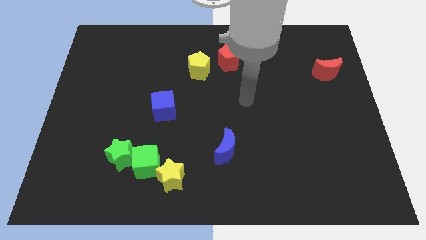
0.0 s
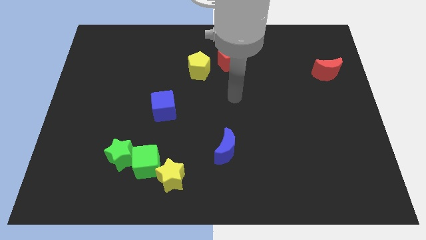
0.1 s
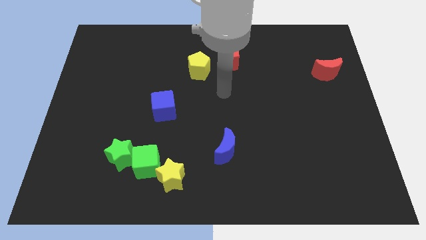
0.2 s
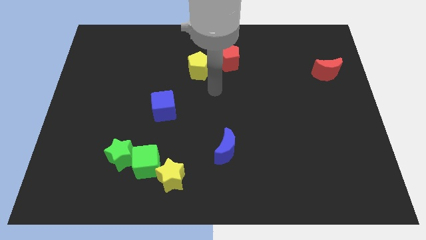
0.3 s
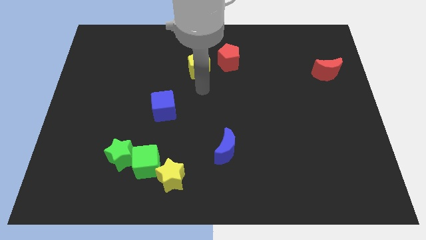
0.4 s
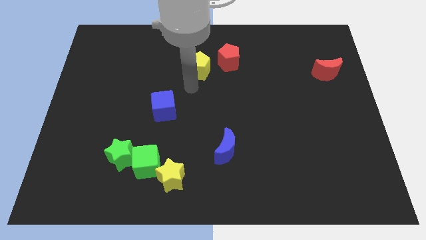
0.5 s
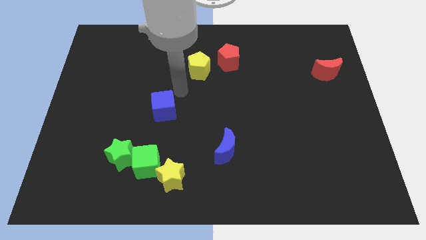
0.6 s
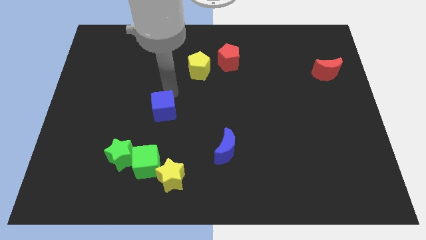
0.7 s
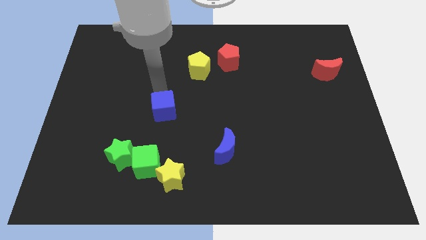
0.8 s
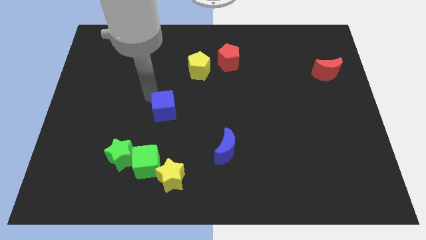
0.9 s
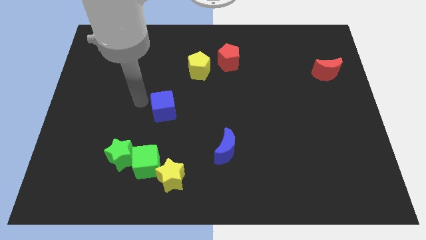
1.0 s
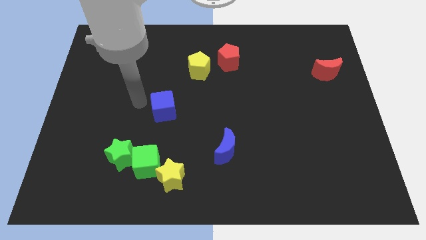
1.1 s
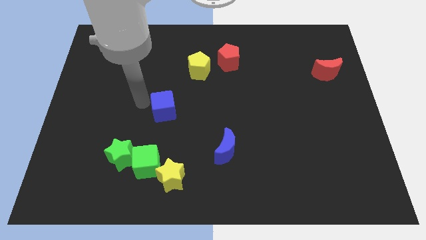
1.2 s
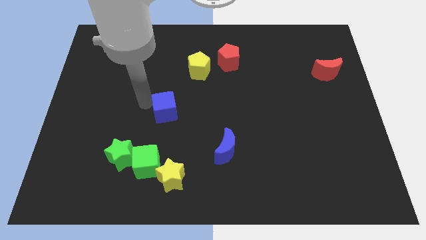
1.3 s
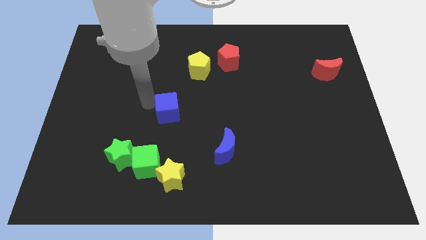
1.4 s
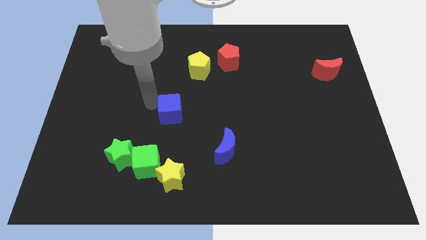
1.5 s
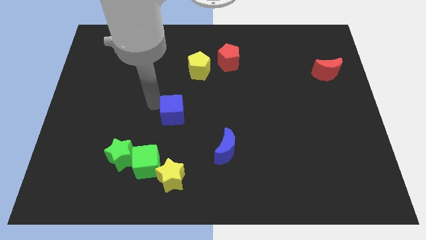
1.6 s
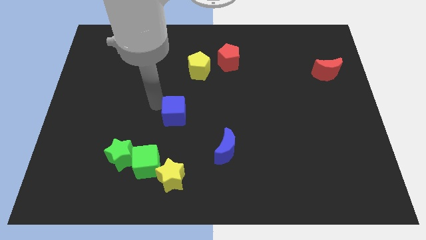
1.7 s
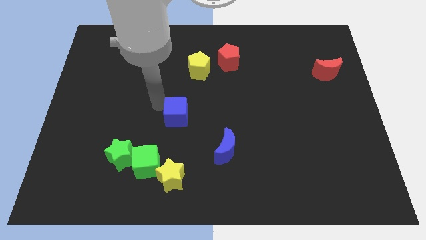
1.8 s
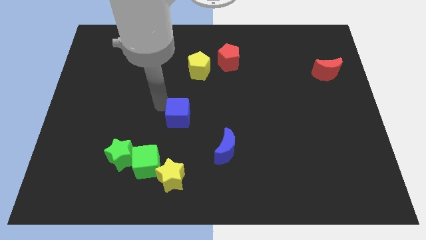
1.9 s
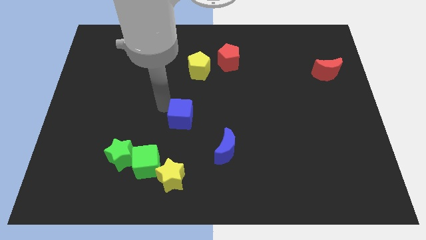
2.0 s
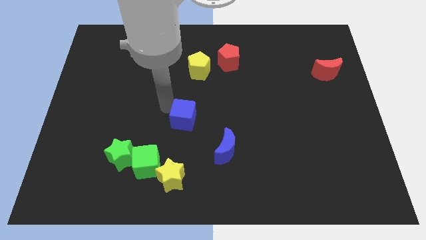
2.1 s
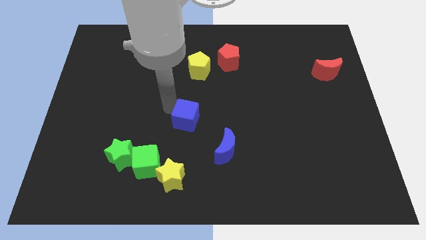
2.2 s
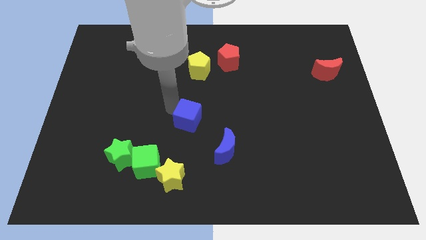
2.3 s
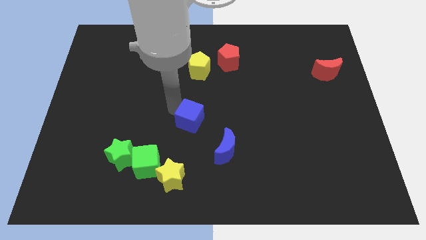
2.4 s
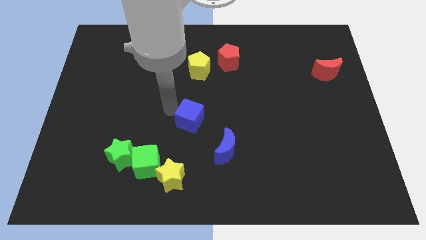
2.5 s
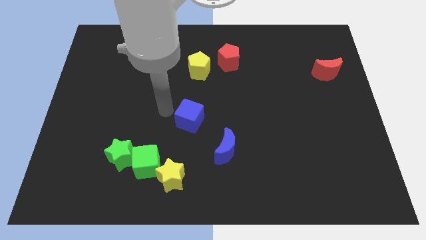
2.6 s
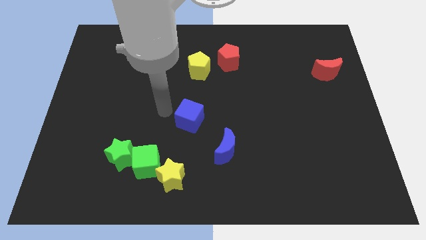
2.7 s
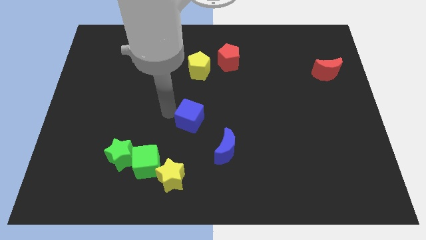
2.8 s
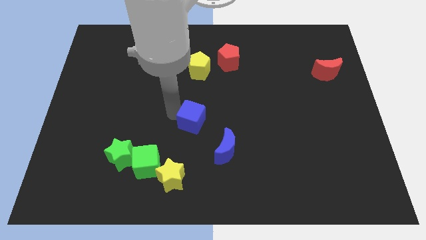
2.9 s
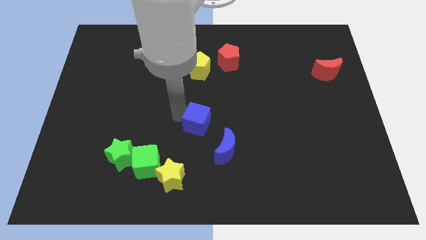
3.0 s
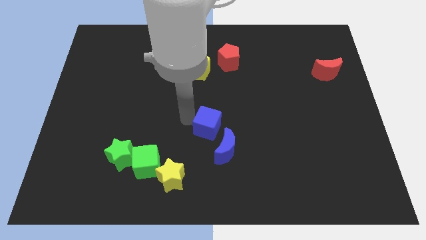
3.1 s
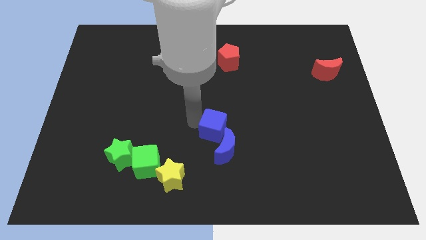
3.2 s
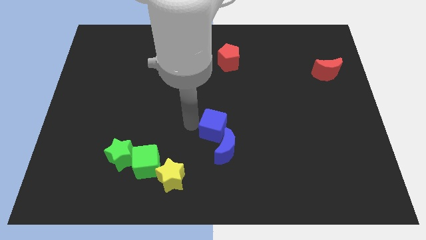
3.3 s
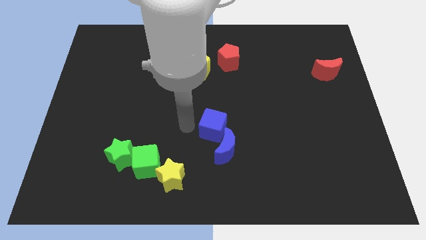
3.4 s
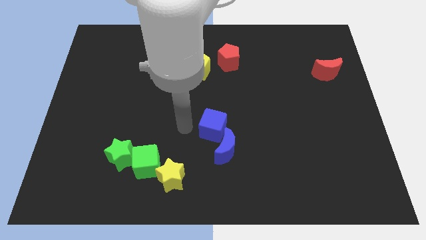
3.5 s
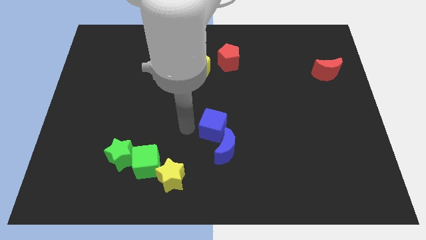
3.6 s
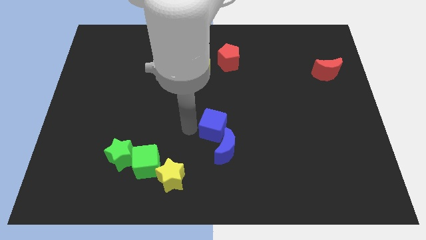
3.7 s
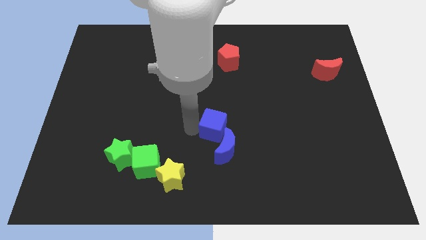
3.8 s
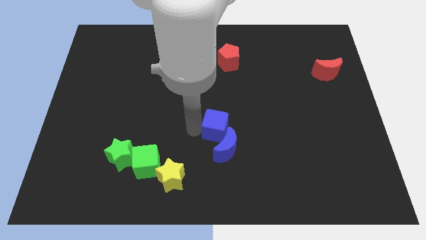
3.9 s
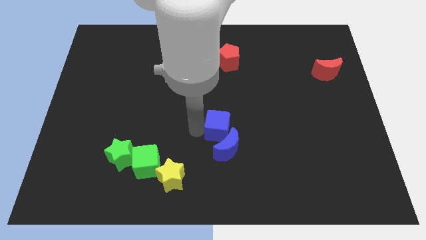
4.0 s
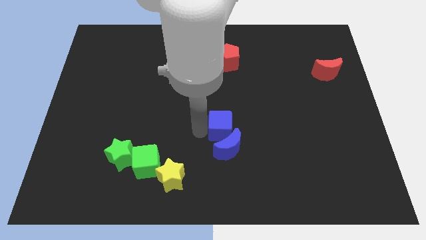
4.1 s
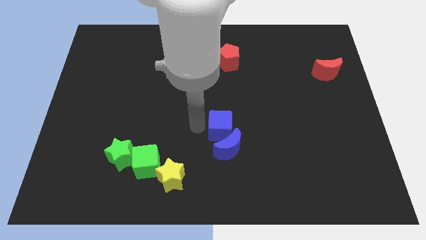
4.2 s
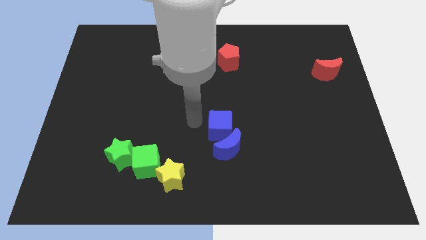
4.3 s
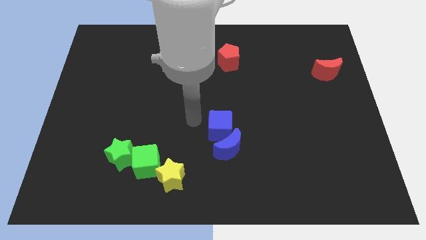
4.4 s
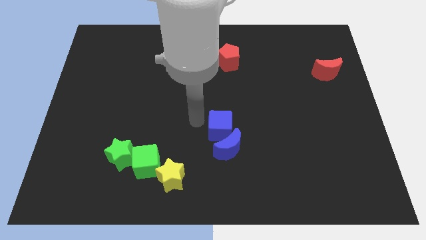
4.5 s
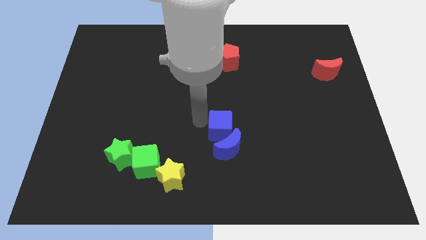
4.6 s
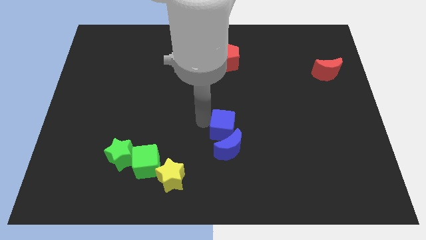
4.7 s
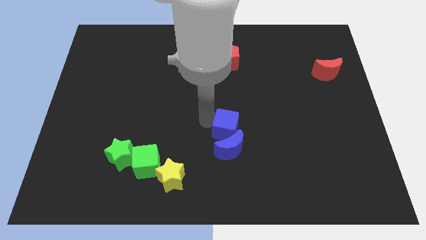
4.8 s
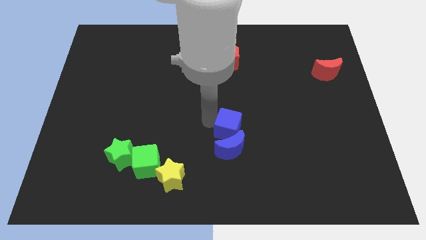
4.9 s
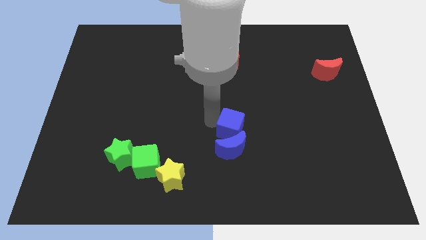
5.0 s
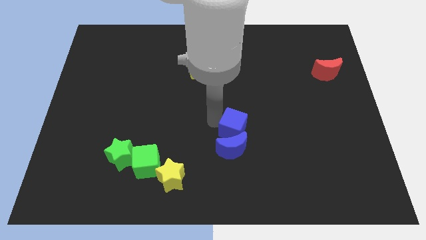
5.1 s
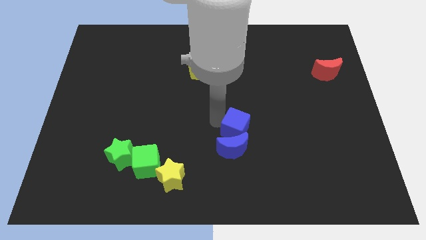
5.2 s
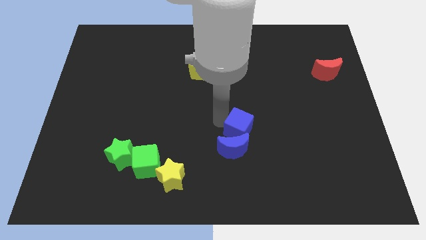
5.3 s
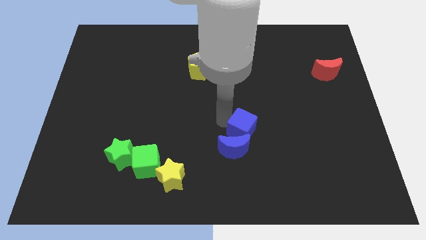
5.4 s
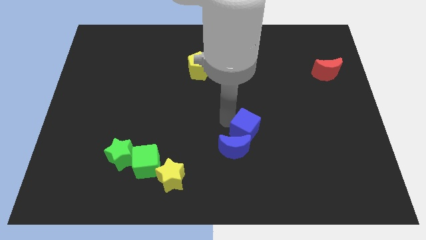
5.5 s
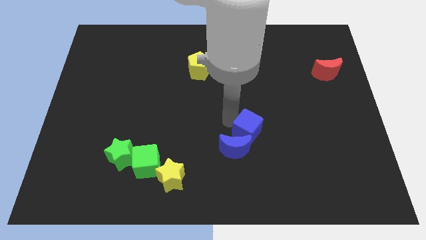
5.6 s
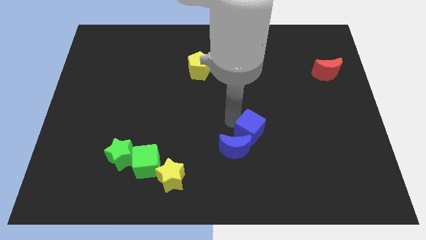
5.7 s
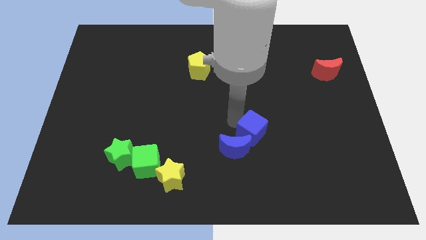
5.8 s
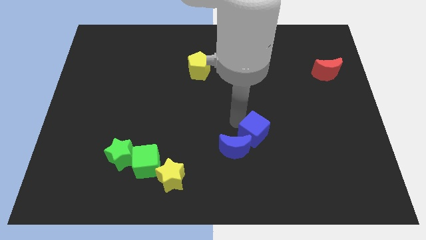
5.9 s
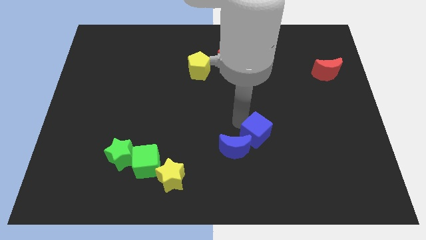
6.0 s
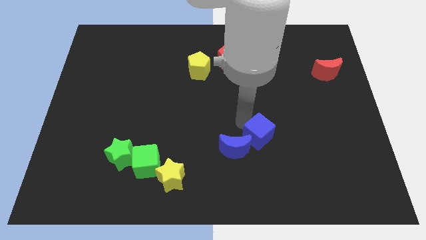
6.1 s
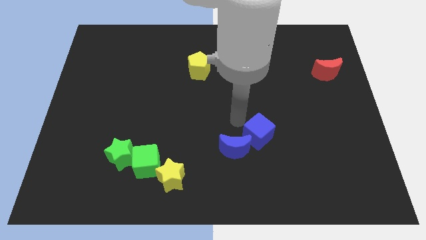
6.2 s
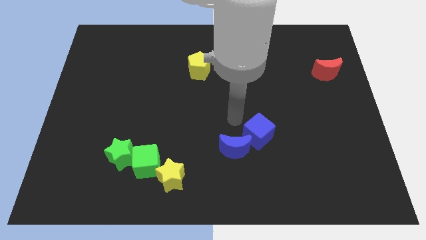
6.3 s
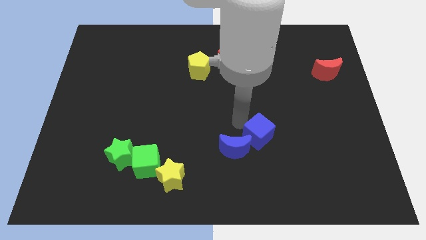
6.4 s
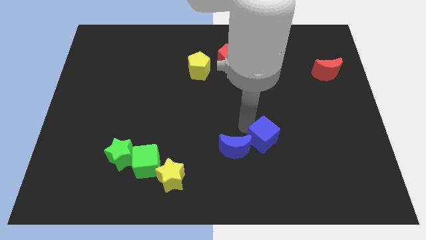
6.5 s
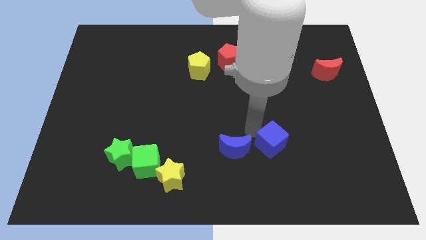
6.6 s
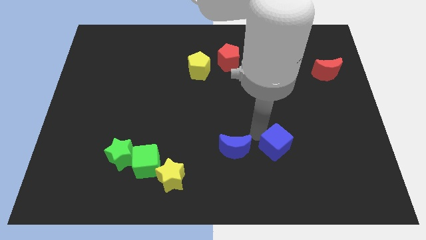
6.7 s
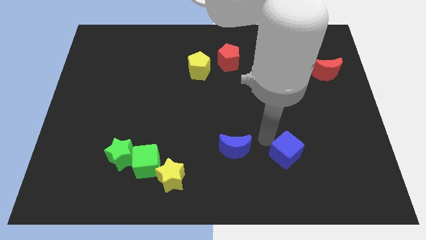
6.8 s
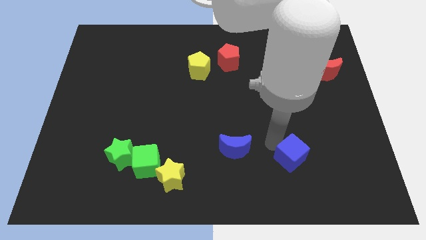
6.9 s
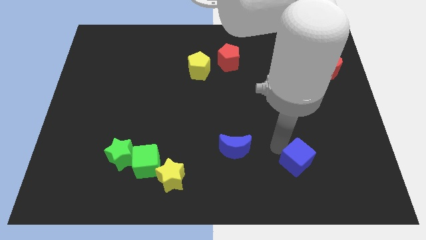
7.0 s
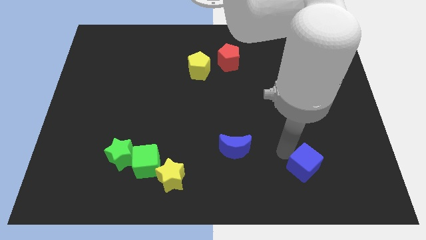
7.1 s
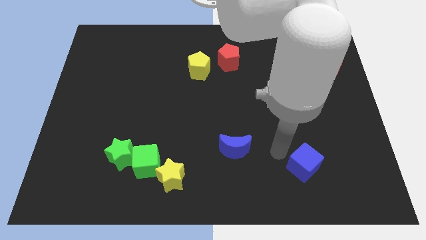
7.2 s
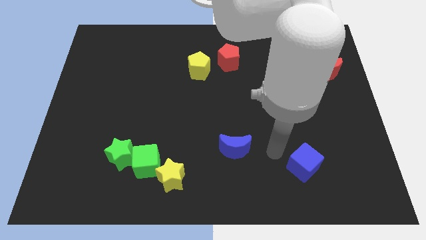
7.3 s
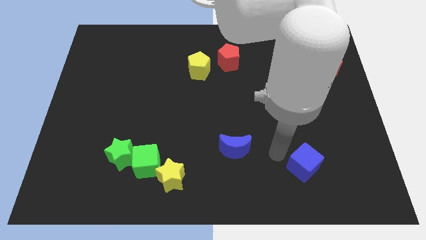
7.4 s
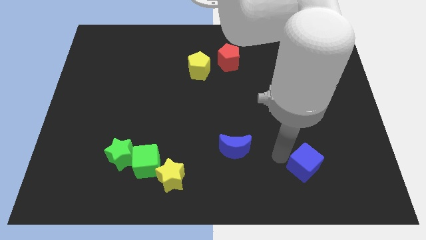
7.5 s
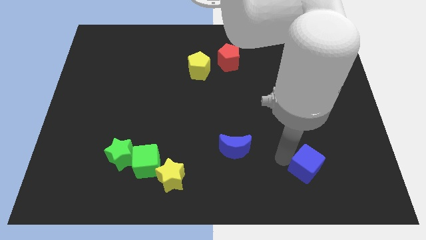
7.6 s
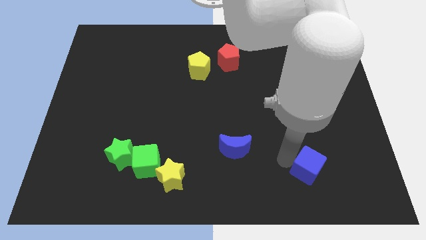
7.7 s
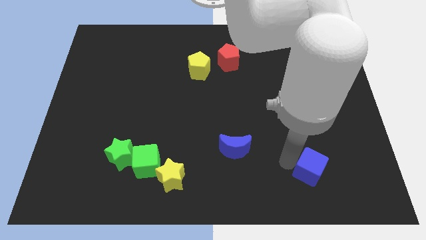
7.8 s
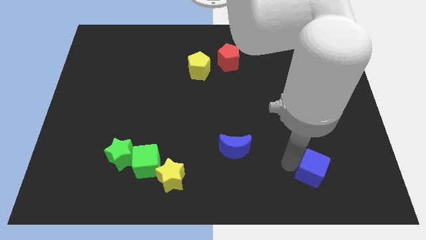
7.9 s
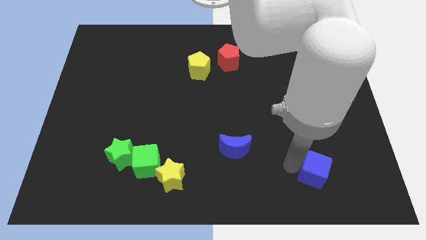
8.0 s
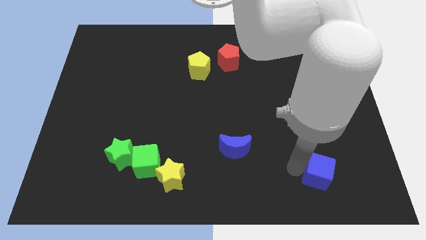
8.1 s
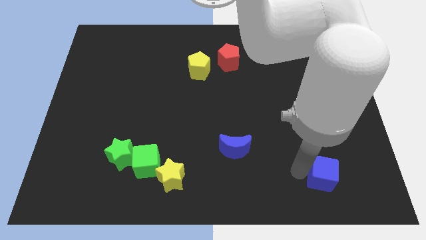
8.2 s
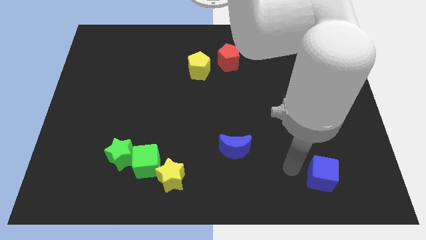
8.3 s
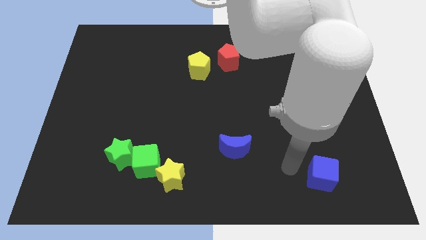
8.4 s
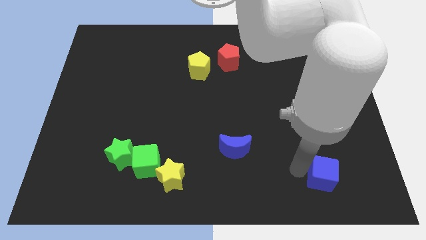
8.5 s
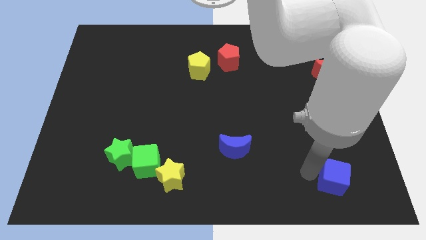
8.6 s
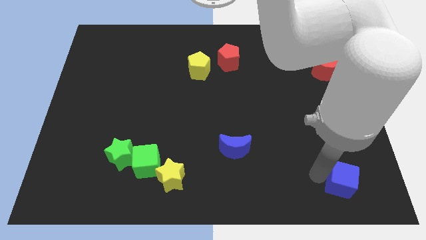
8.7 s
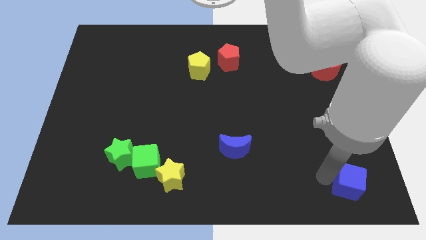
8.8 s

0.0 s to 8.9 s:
push the blue cube to the bottom right
